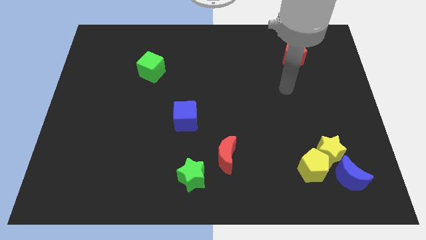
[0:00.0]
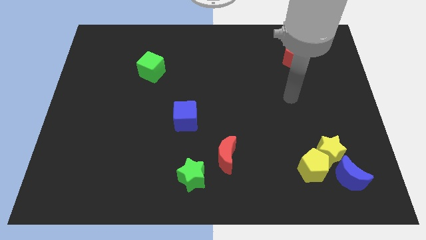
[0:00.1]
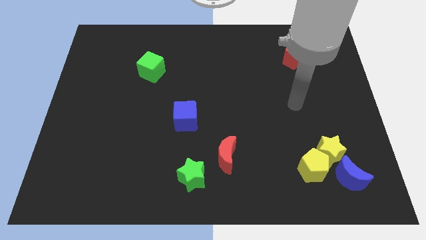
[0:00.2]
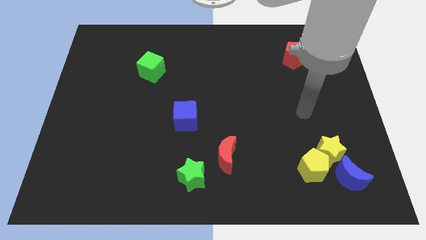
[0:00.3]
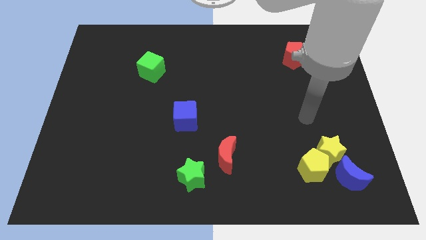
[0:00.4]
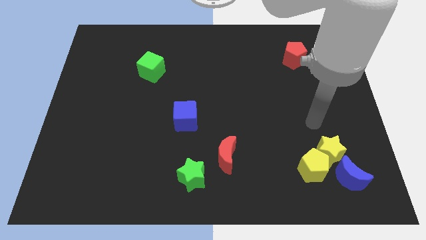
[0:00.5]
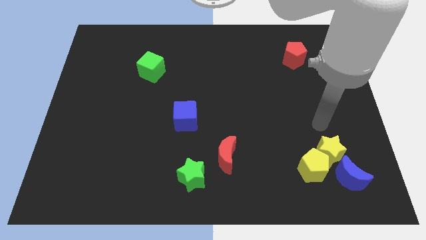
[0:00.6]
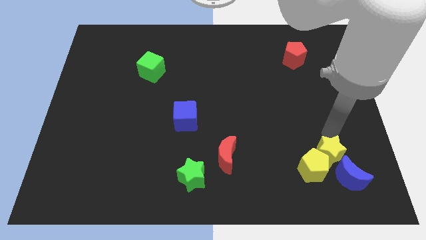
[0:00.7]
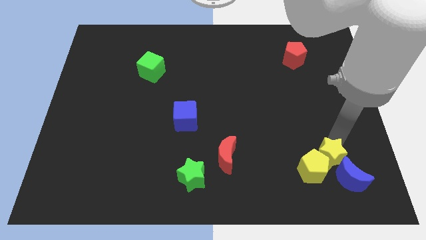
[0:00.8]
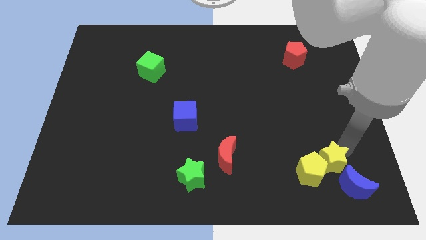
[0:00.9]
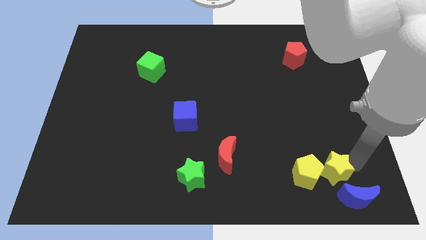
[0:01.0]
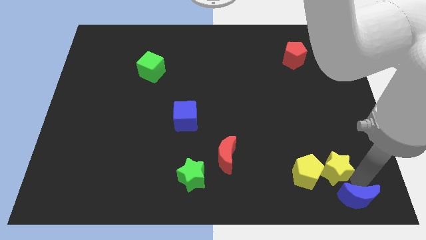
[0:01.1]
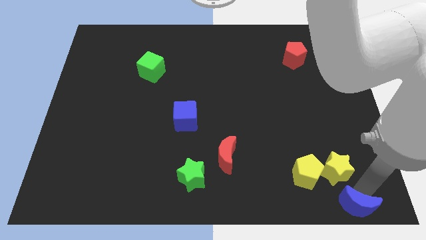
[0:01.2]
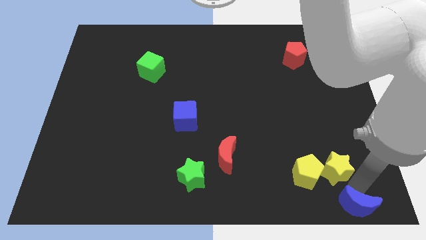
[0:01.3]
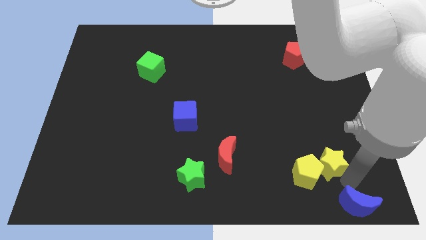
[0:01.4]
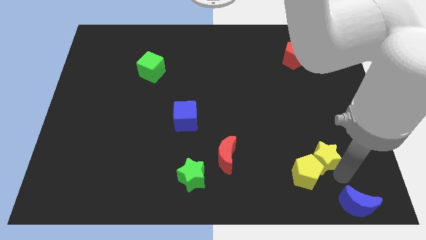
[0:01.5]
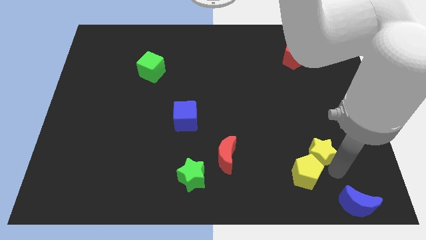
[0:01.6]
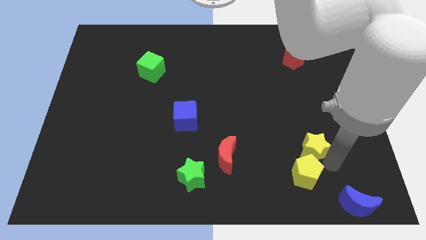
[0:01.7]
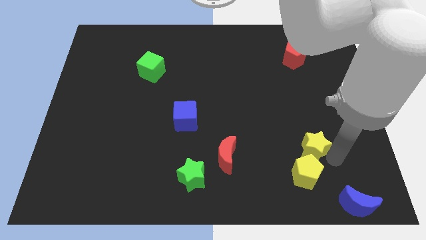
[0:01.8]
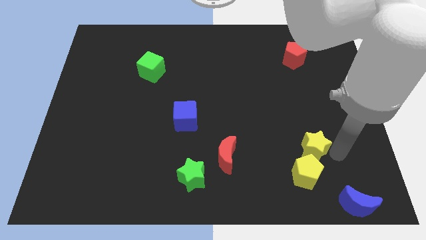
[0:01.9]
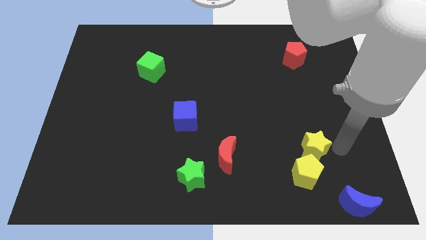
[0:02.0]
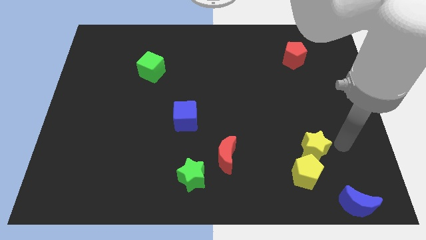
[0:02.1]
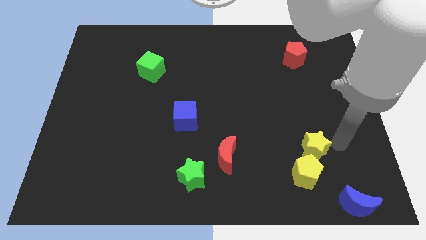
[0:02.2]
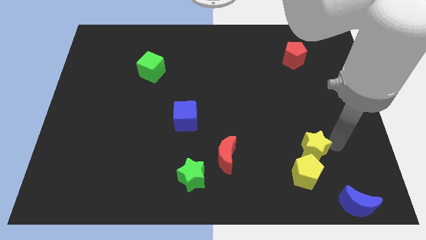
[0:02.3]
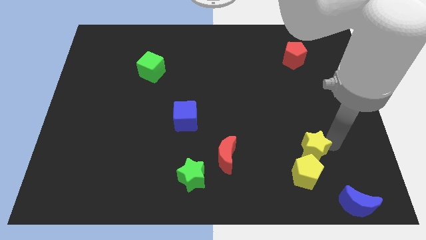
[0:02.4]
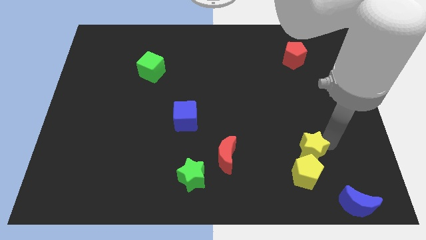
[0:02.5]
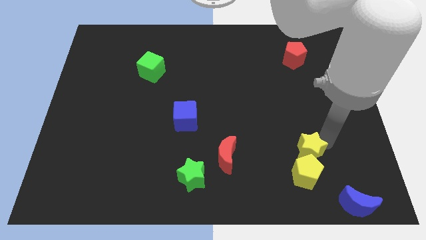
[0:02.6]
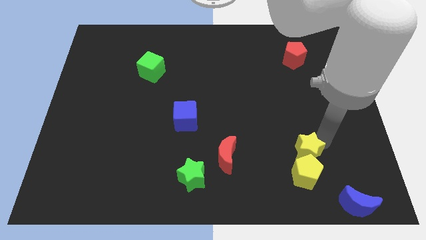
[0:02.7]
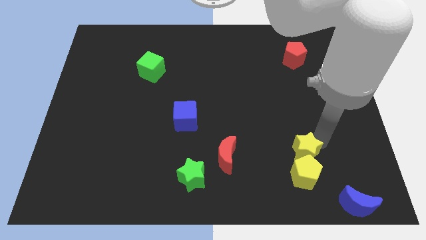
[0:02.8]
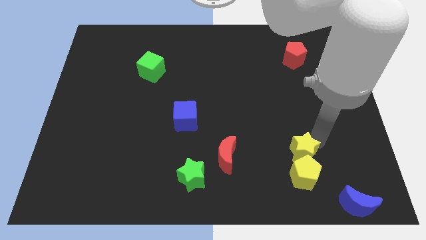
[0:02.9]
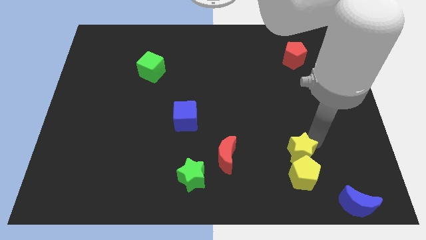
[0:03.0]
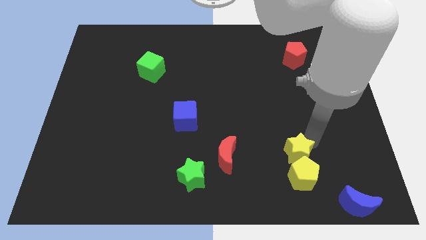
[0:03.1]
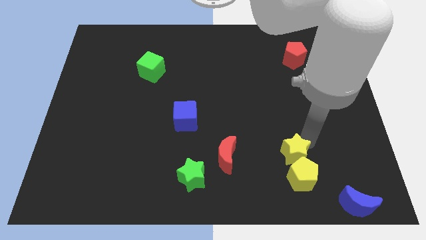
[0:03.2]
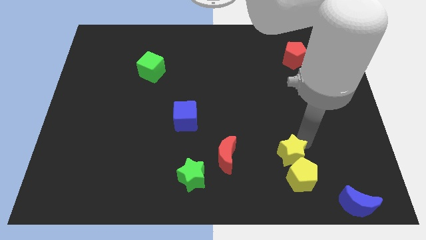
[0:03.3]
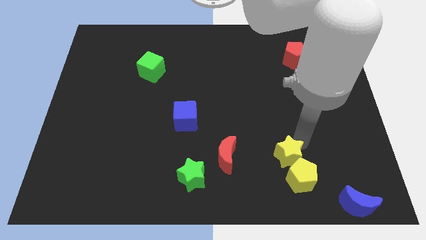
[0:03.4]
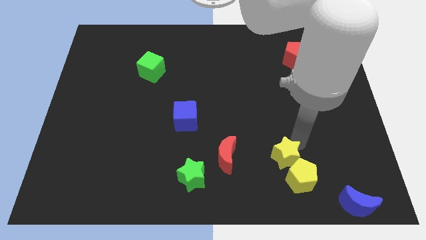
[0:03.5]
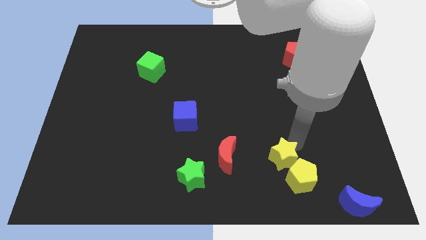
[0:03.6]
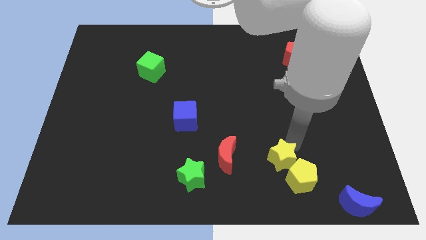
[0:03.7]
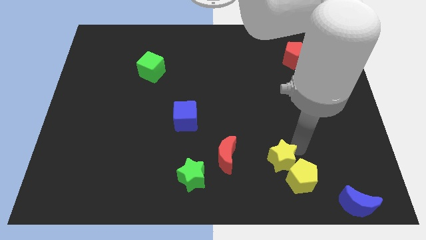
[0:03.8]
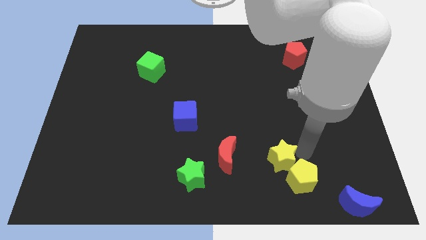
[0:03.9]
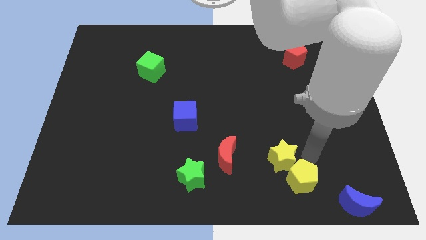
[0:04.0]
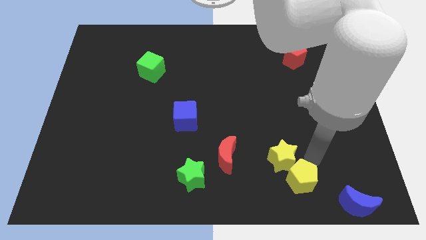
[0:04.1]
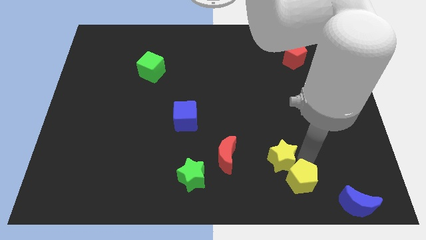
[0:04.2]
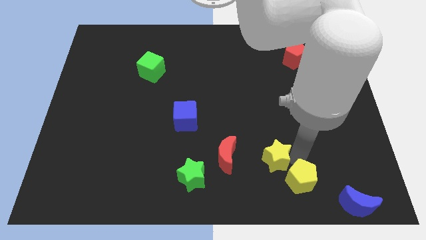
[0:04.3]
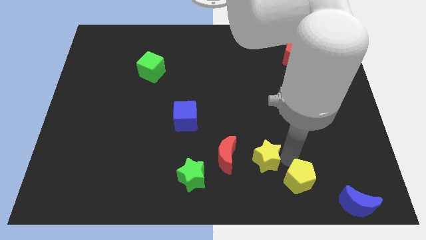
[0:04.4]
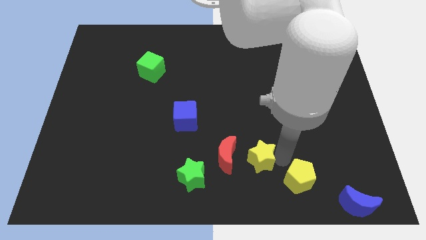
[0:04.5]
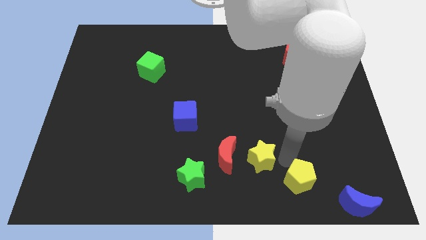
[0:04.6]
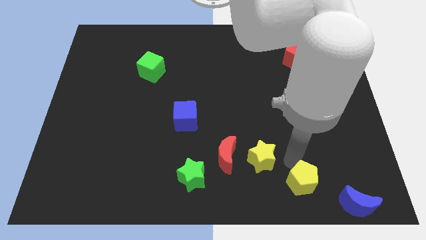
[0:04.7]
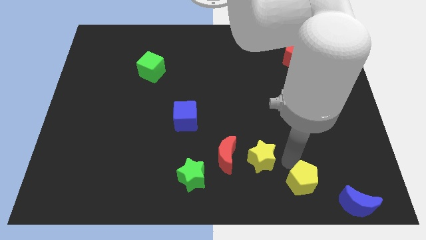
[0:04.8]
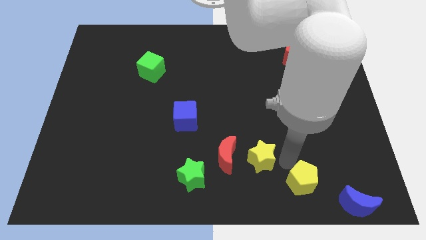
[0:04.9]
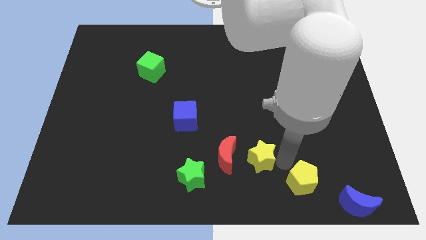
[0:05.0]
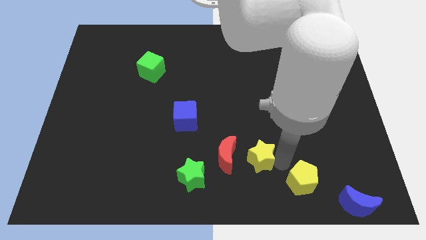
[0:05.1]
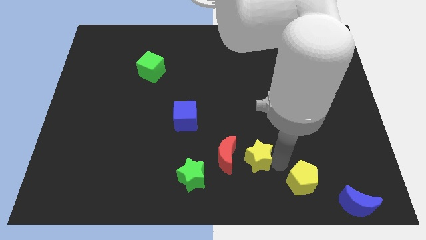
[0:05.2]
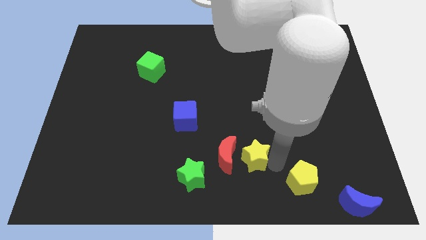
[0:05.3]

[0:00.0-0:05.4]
slide the yellow star to the red moon

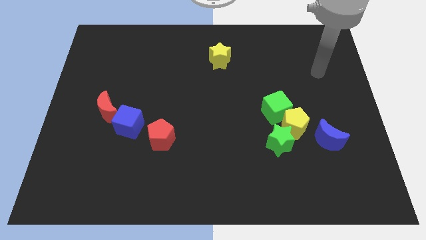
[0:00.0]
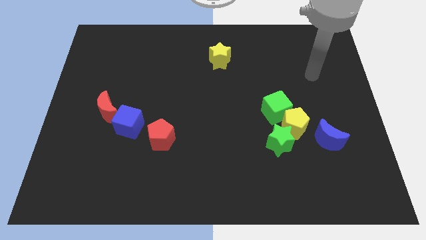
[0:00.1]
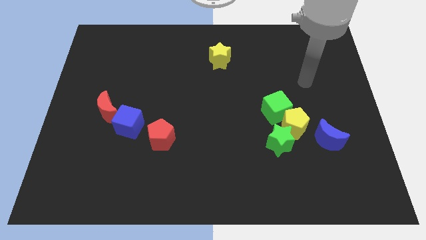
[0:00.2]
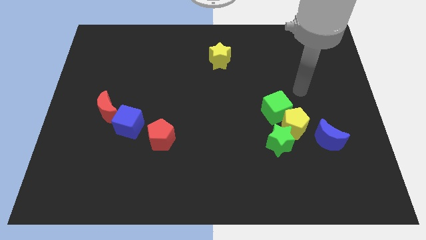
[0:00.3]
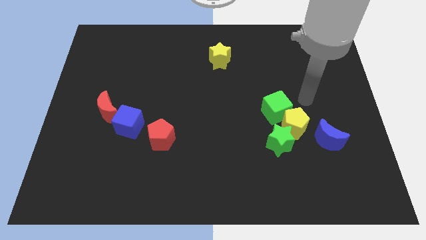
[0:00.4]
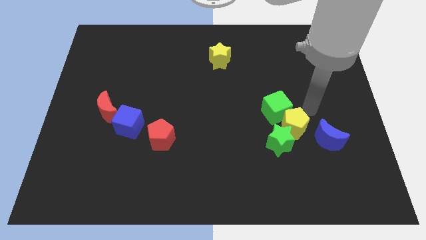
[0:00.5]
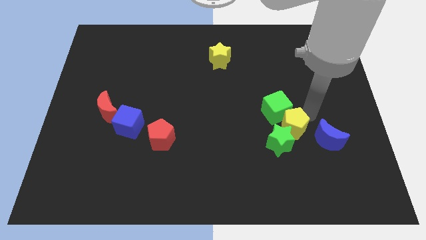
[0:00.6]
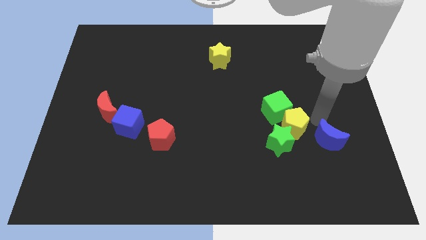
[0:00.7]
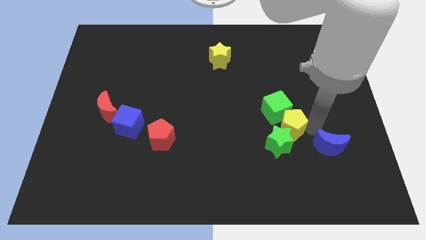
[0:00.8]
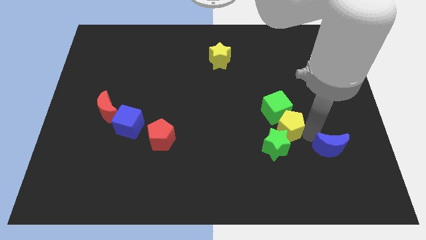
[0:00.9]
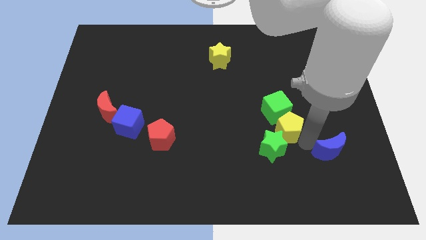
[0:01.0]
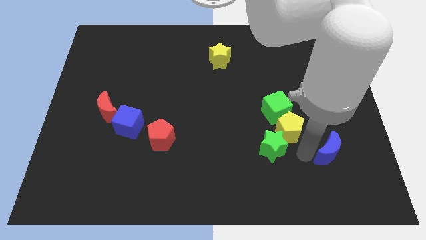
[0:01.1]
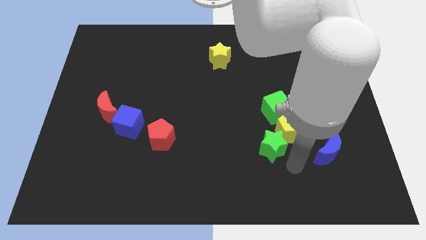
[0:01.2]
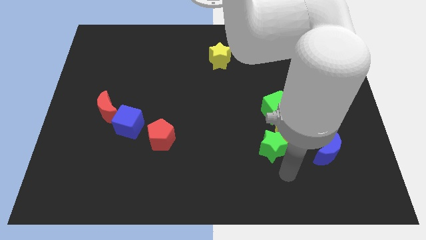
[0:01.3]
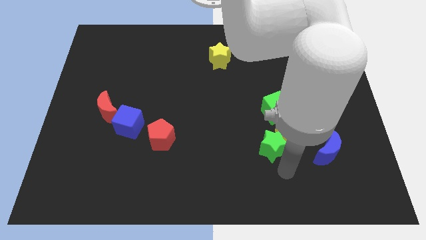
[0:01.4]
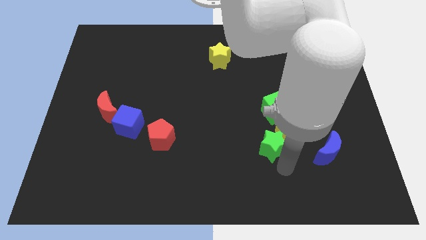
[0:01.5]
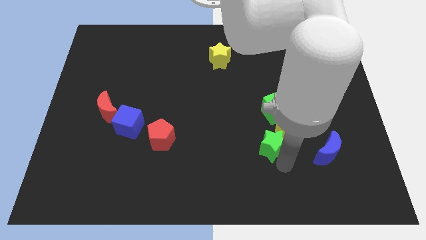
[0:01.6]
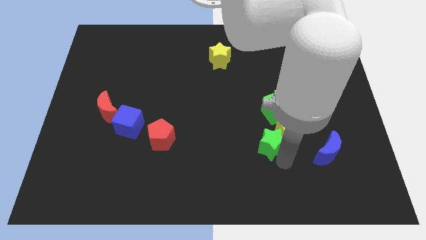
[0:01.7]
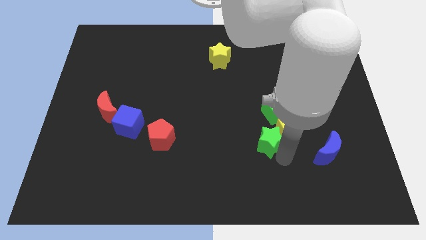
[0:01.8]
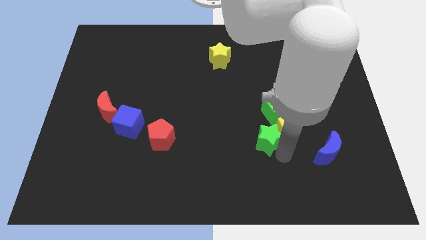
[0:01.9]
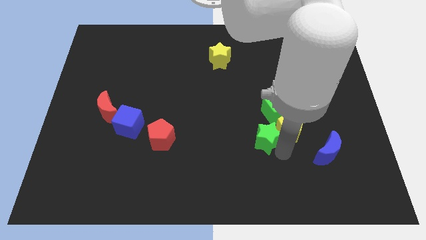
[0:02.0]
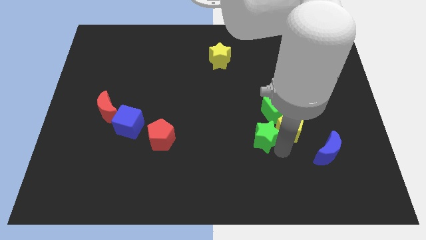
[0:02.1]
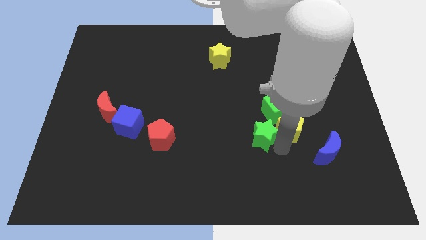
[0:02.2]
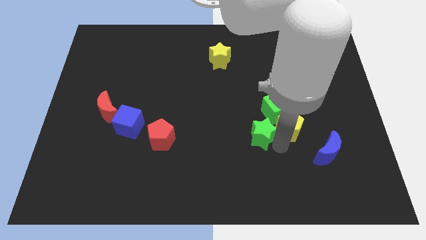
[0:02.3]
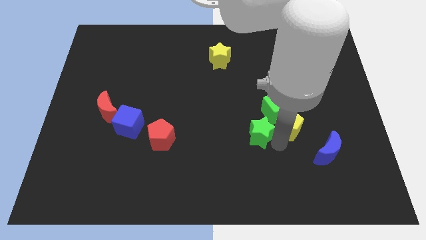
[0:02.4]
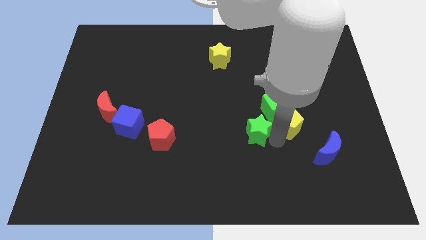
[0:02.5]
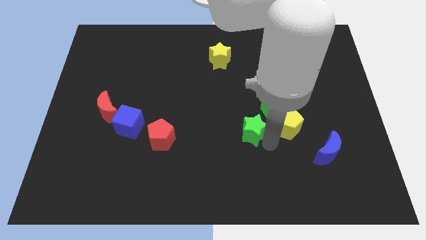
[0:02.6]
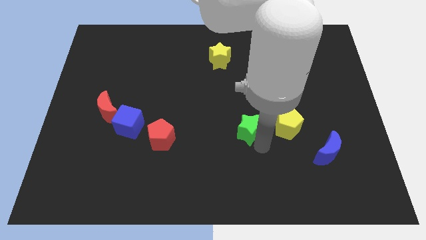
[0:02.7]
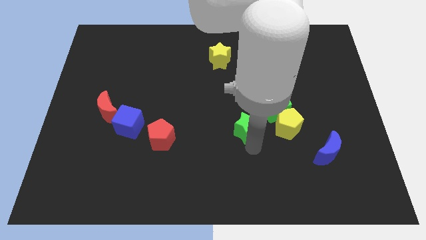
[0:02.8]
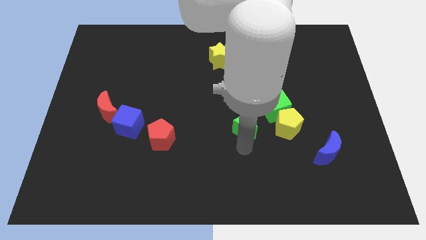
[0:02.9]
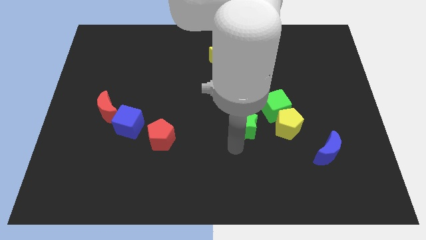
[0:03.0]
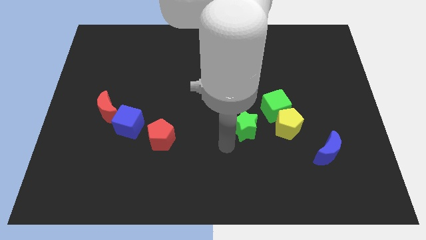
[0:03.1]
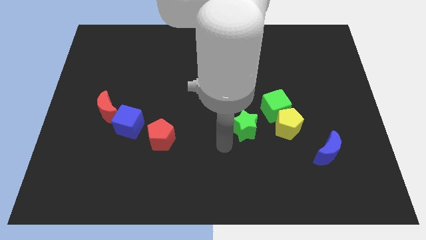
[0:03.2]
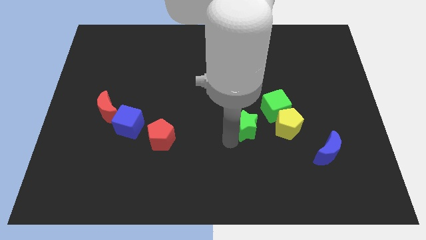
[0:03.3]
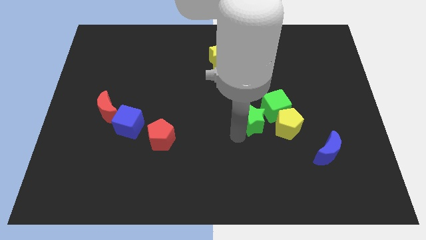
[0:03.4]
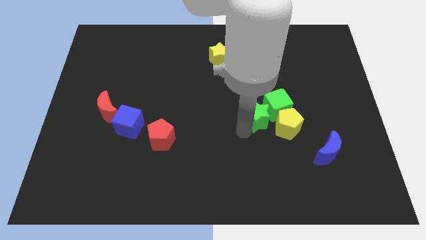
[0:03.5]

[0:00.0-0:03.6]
move the green star towards the green cube
